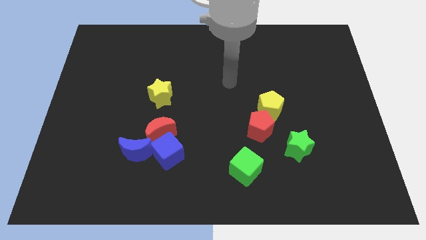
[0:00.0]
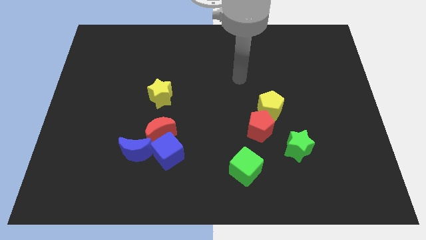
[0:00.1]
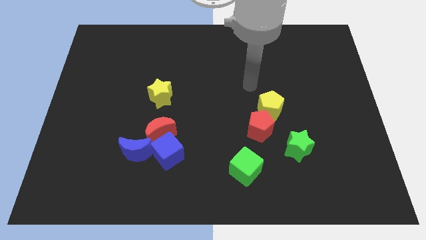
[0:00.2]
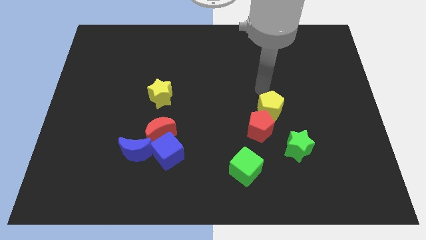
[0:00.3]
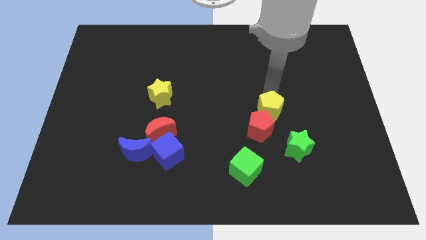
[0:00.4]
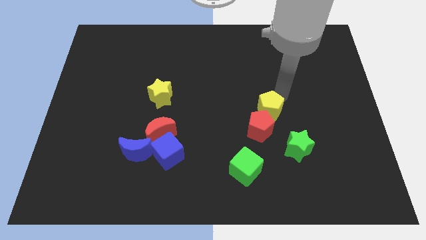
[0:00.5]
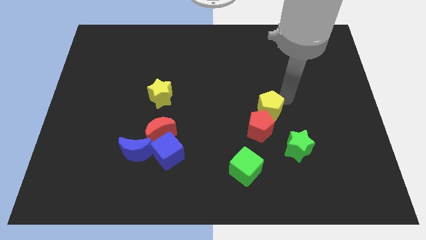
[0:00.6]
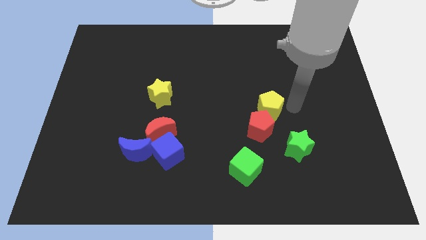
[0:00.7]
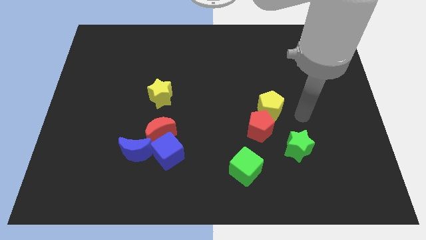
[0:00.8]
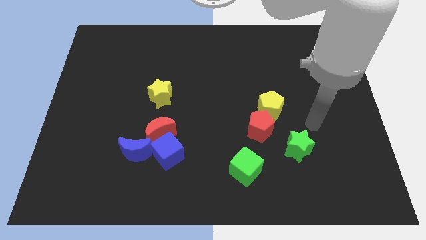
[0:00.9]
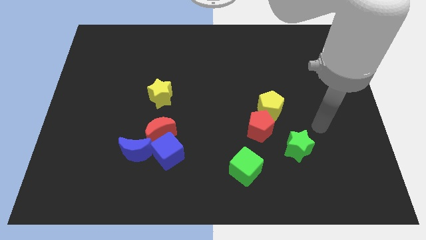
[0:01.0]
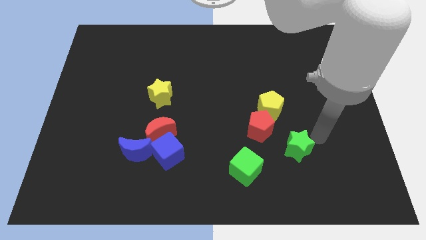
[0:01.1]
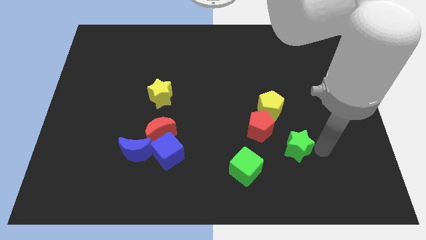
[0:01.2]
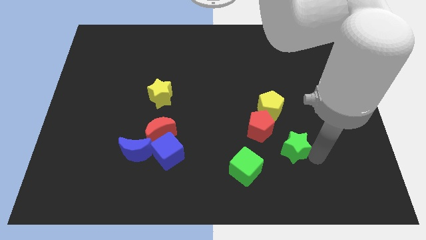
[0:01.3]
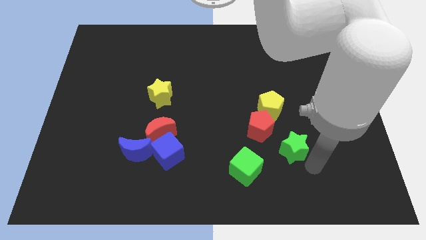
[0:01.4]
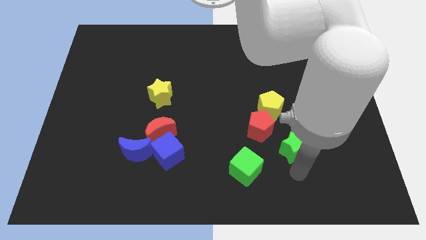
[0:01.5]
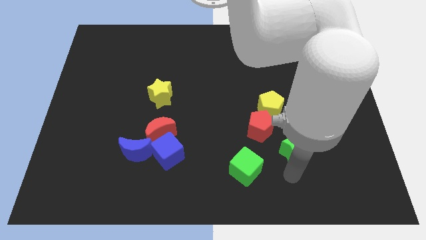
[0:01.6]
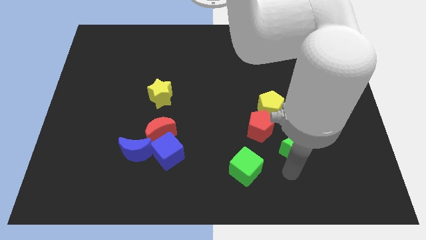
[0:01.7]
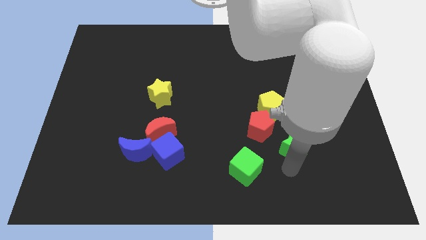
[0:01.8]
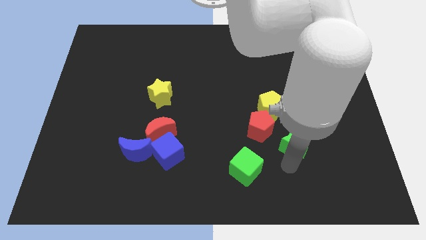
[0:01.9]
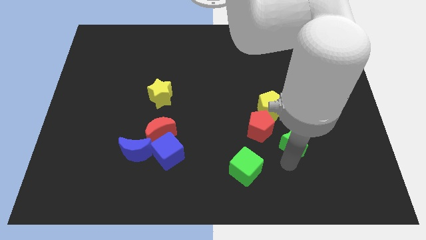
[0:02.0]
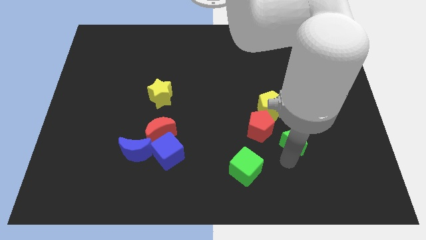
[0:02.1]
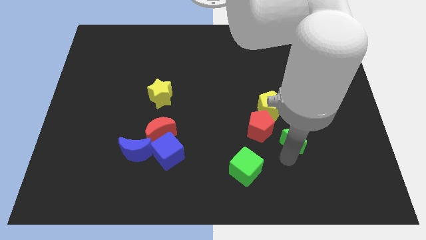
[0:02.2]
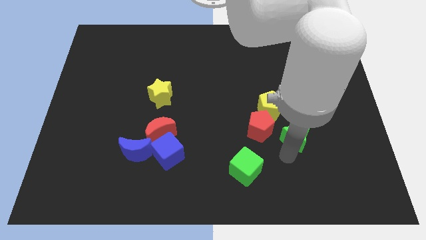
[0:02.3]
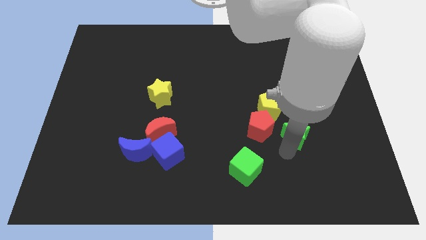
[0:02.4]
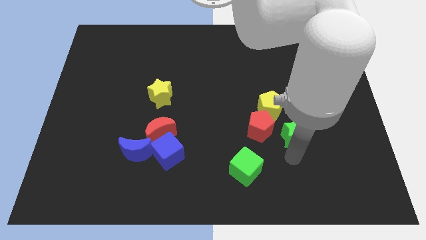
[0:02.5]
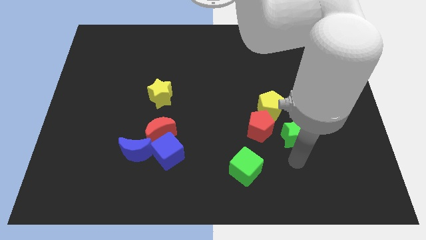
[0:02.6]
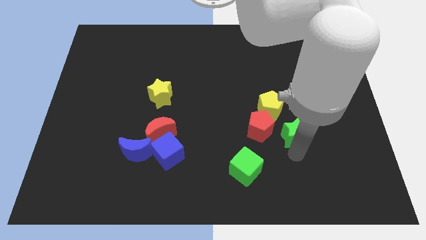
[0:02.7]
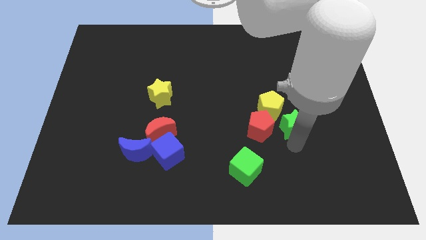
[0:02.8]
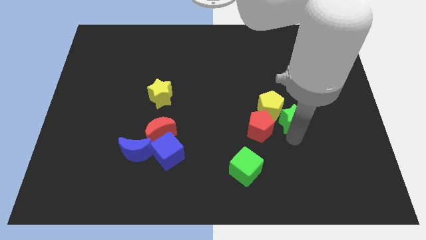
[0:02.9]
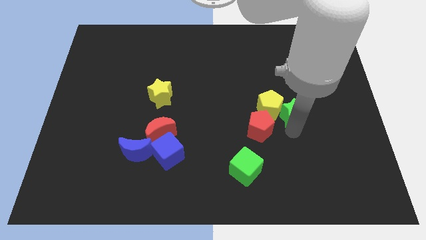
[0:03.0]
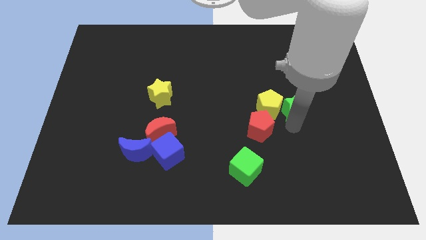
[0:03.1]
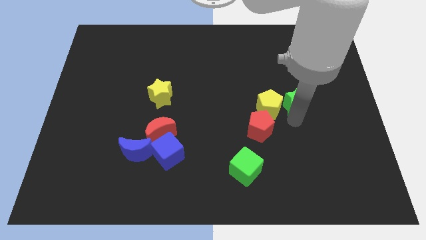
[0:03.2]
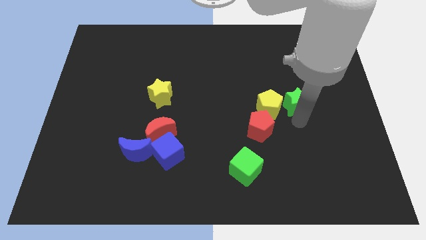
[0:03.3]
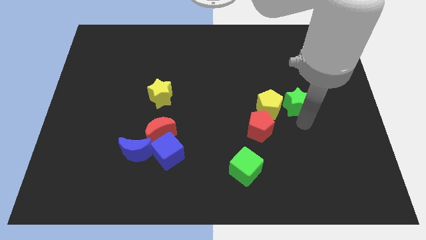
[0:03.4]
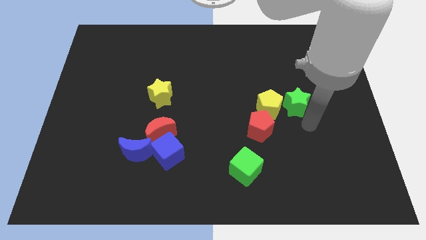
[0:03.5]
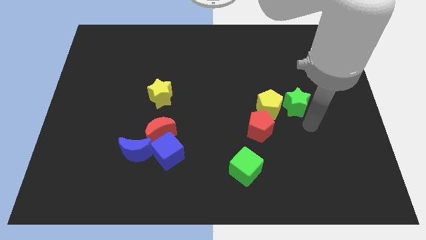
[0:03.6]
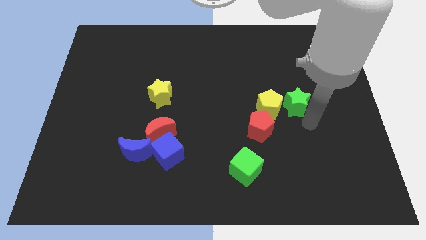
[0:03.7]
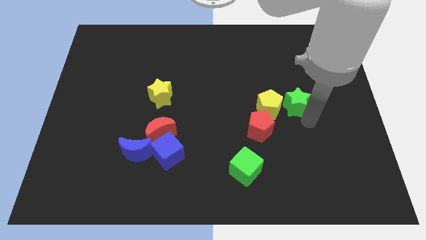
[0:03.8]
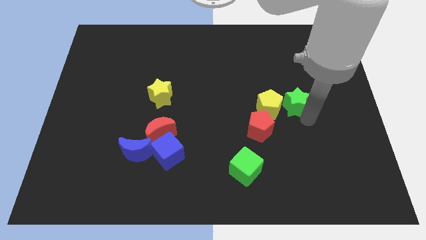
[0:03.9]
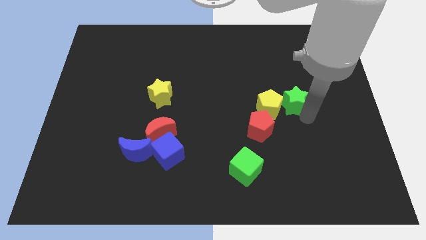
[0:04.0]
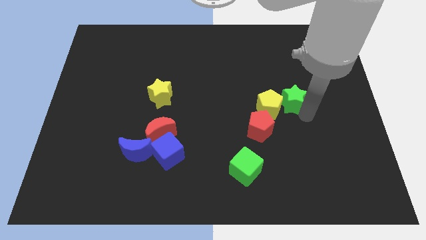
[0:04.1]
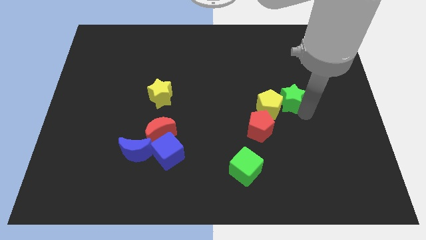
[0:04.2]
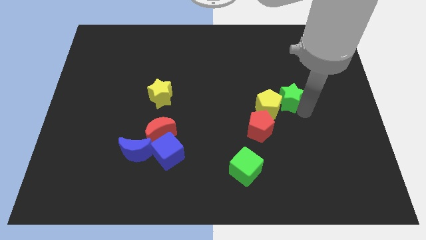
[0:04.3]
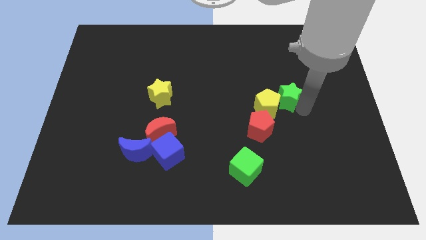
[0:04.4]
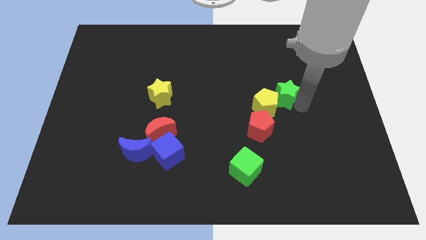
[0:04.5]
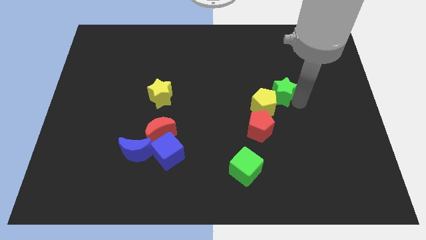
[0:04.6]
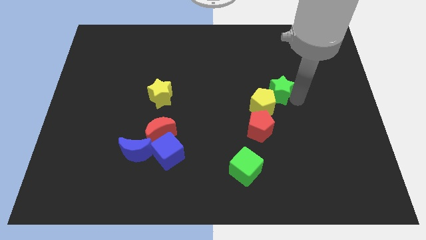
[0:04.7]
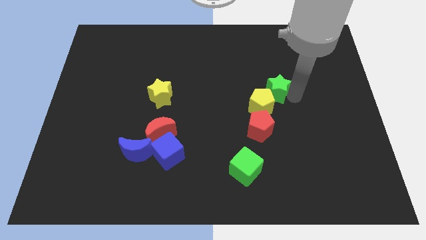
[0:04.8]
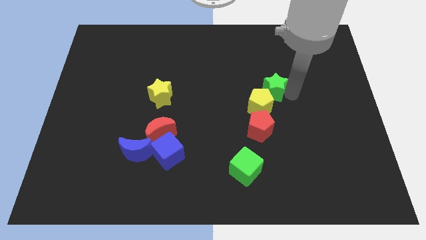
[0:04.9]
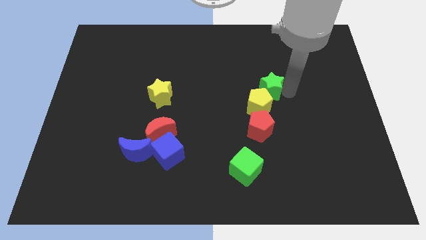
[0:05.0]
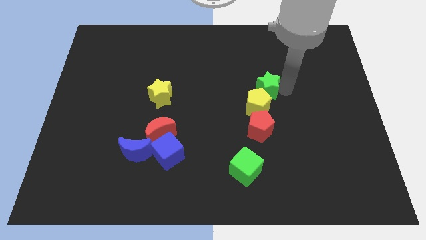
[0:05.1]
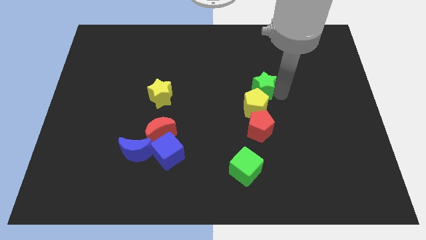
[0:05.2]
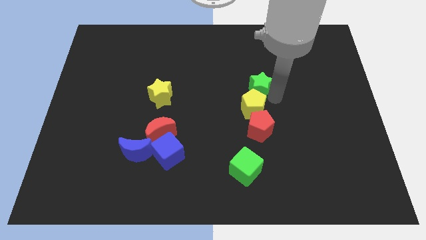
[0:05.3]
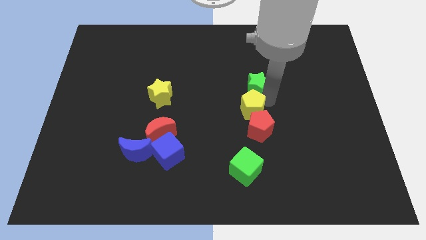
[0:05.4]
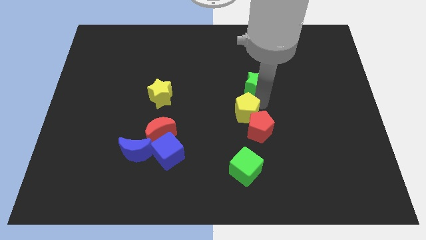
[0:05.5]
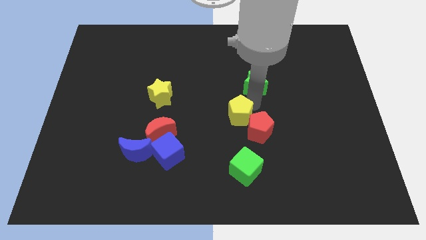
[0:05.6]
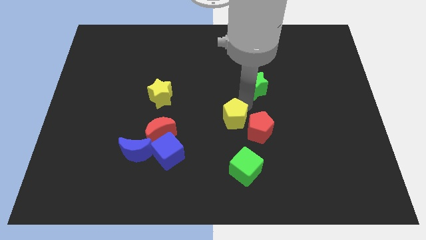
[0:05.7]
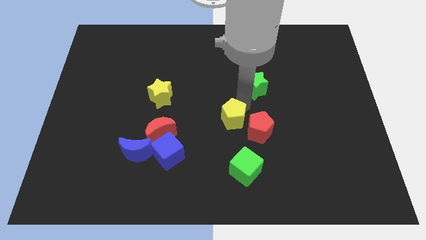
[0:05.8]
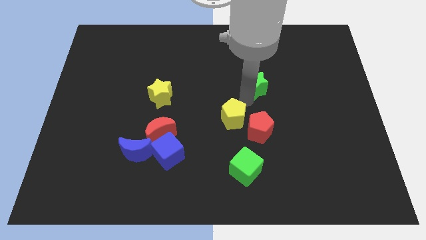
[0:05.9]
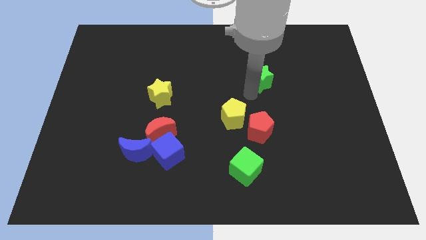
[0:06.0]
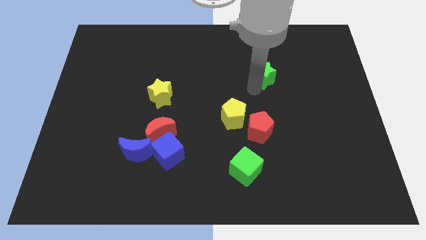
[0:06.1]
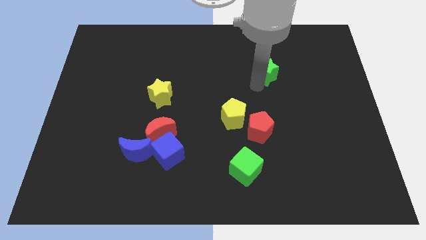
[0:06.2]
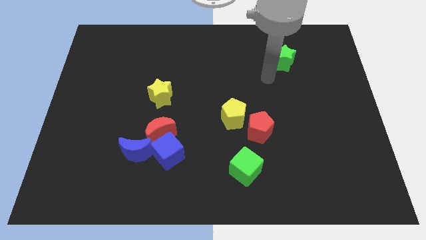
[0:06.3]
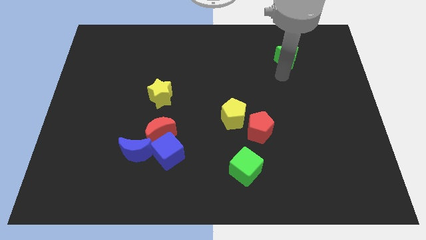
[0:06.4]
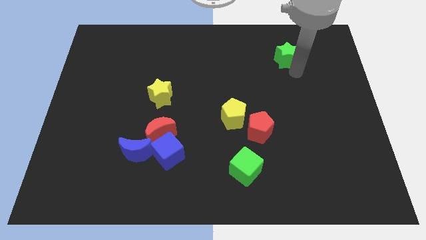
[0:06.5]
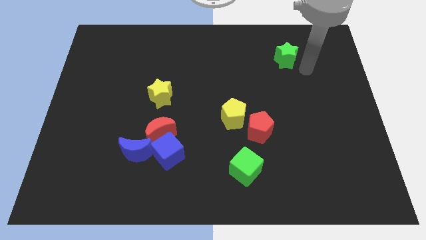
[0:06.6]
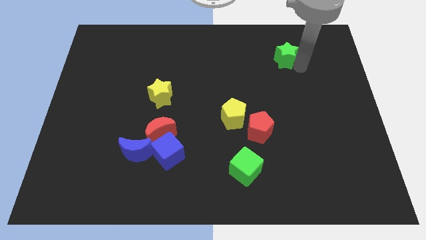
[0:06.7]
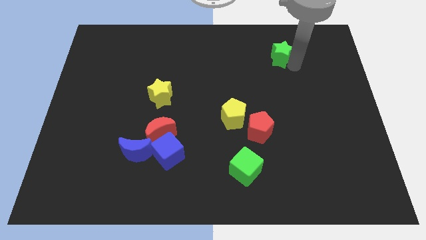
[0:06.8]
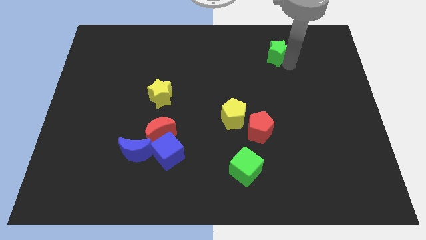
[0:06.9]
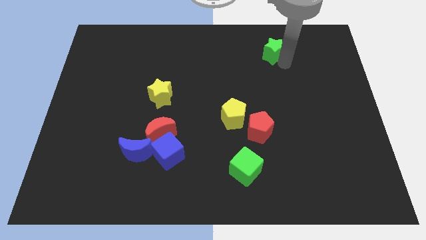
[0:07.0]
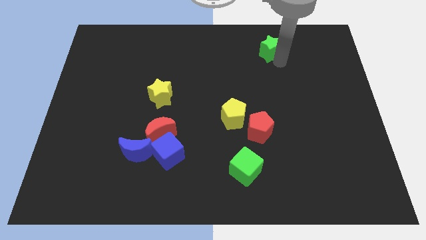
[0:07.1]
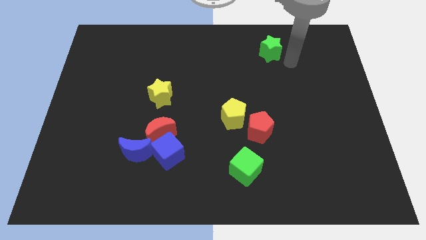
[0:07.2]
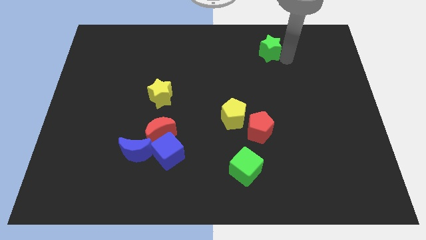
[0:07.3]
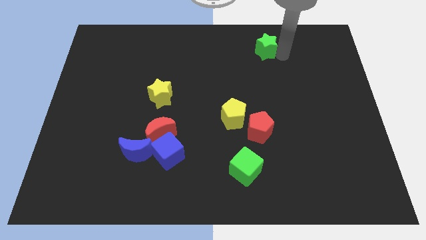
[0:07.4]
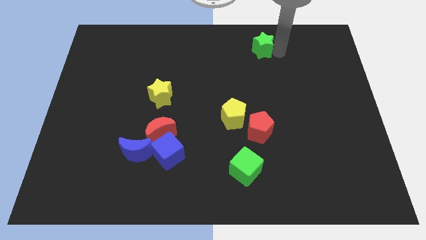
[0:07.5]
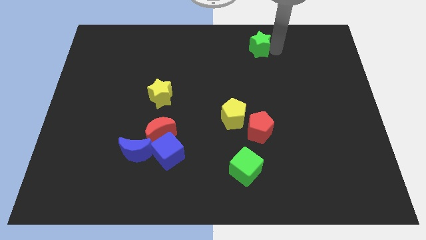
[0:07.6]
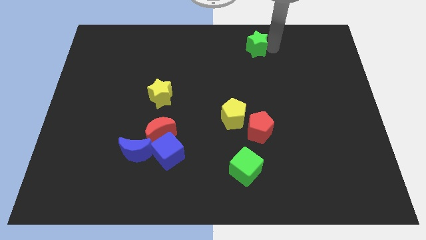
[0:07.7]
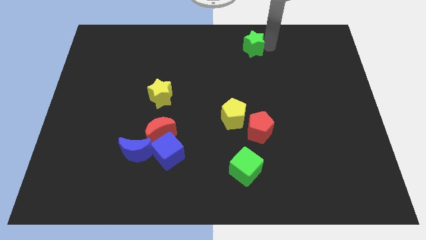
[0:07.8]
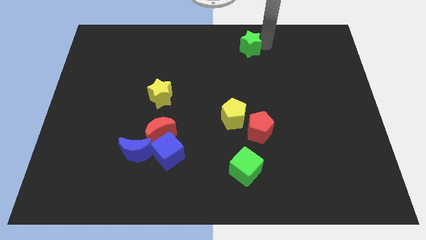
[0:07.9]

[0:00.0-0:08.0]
push the green star to the towards your base
